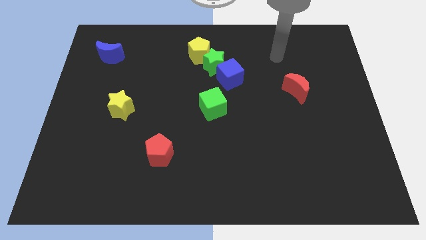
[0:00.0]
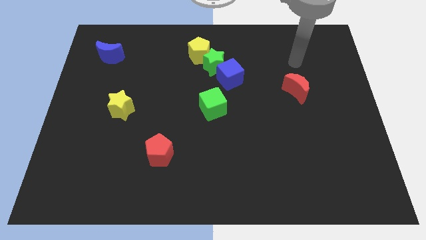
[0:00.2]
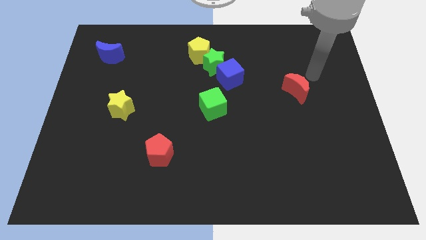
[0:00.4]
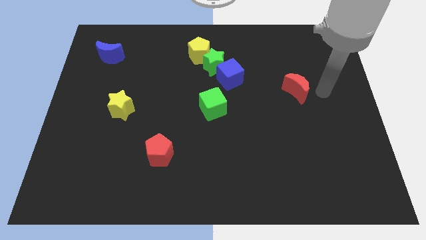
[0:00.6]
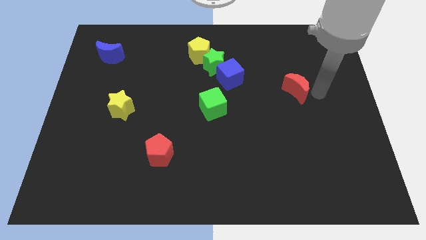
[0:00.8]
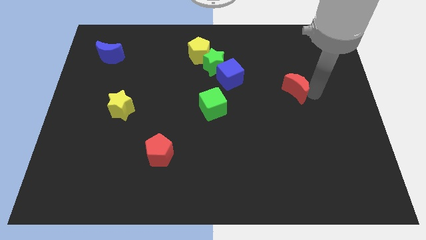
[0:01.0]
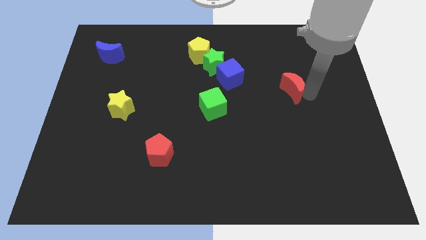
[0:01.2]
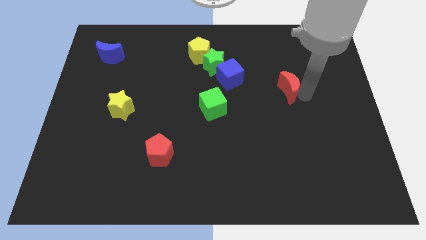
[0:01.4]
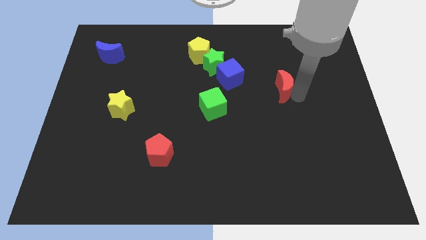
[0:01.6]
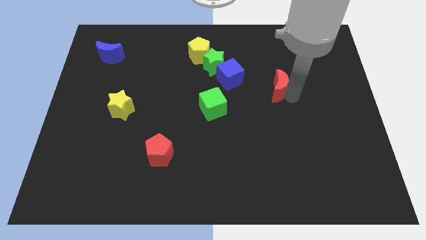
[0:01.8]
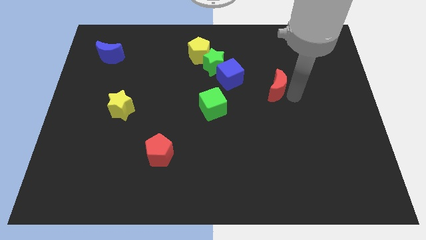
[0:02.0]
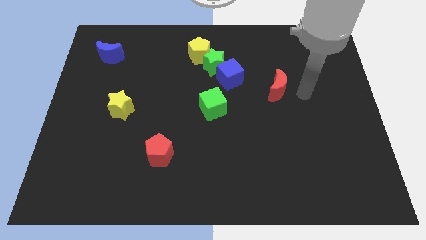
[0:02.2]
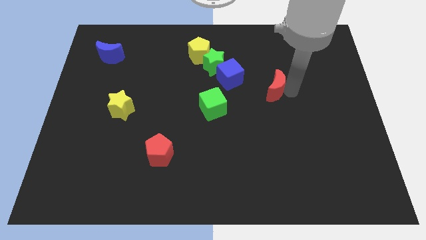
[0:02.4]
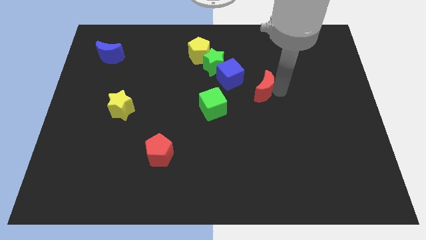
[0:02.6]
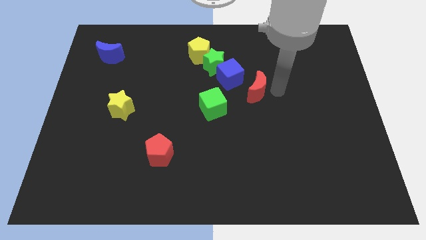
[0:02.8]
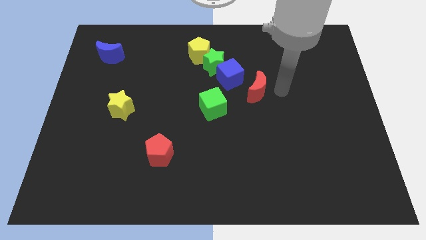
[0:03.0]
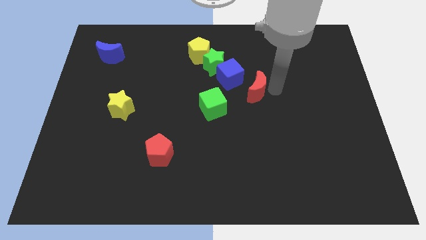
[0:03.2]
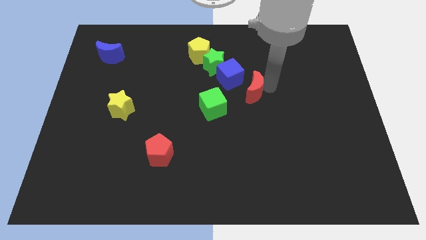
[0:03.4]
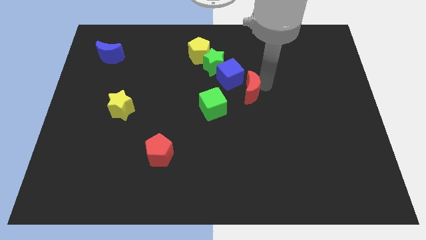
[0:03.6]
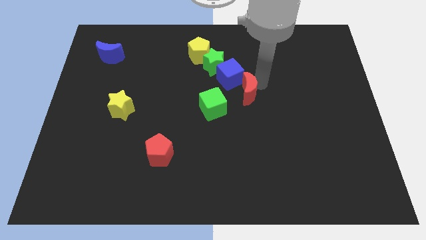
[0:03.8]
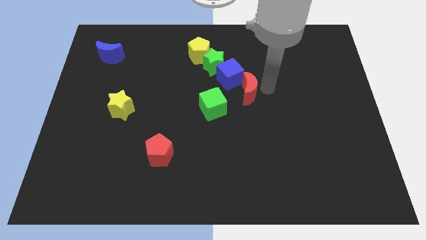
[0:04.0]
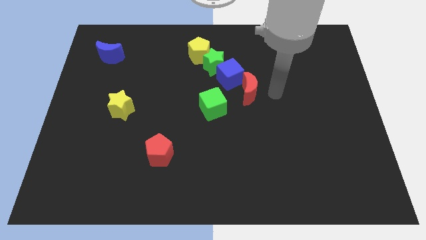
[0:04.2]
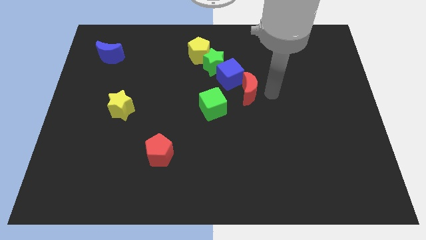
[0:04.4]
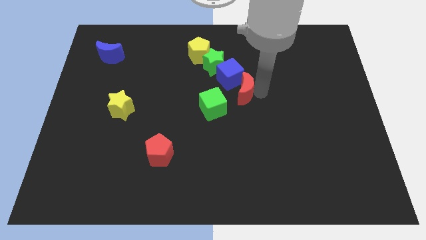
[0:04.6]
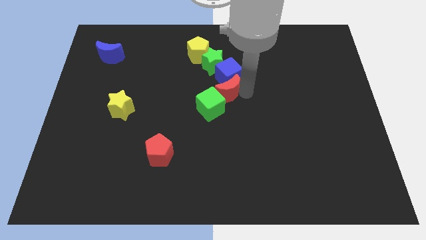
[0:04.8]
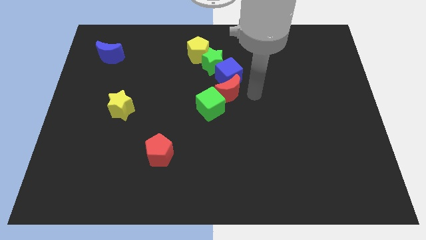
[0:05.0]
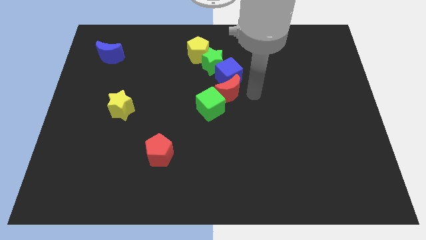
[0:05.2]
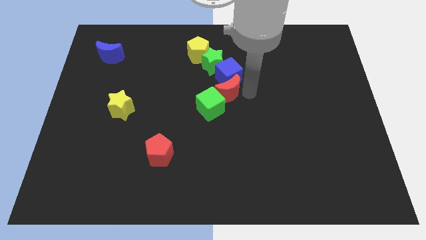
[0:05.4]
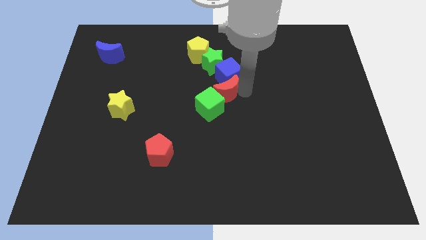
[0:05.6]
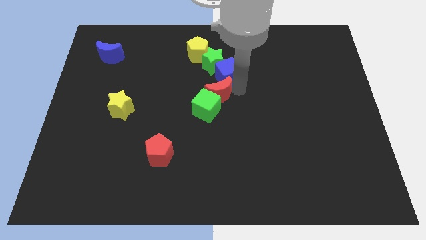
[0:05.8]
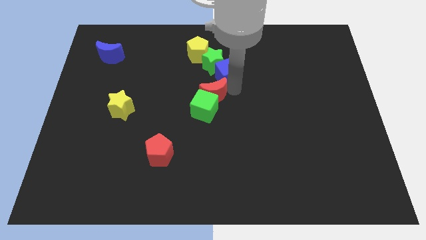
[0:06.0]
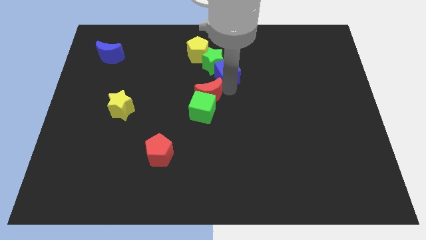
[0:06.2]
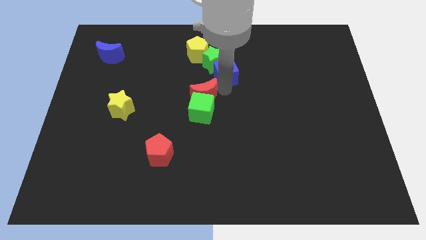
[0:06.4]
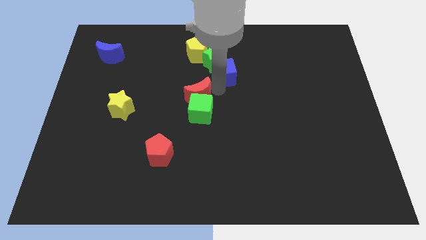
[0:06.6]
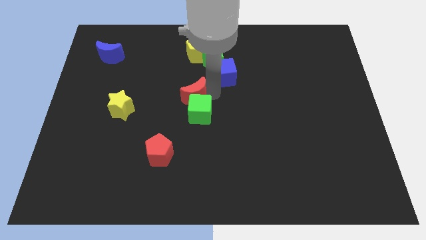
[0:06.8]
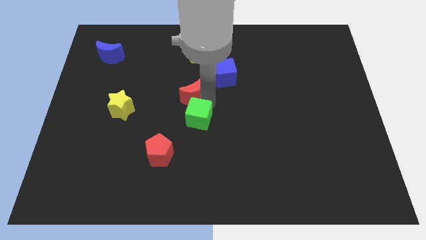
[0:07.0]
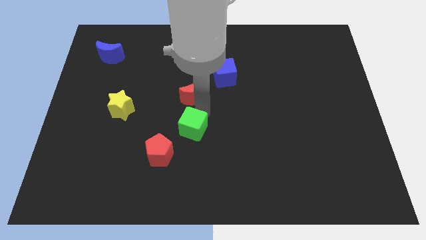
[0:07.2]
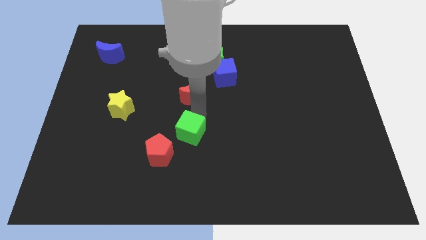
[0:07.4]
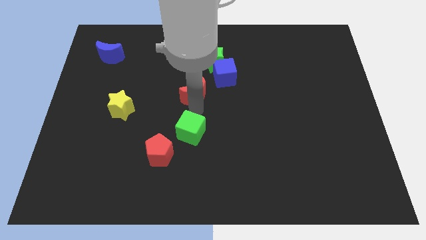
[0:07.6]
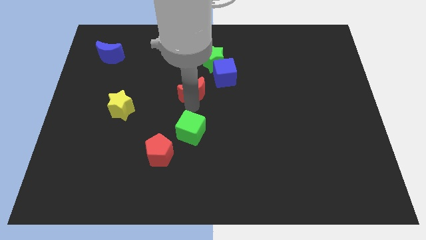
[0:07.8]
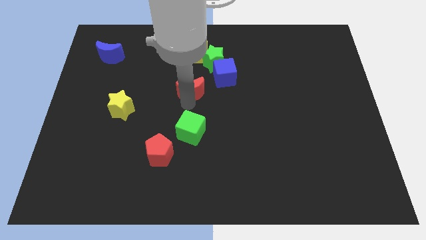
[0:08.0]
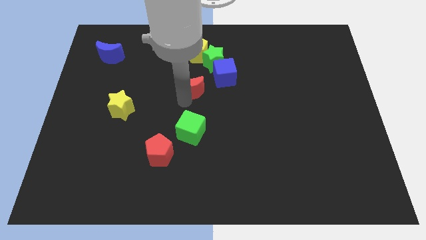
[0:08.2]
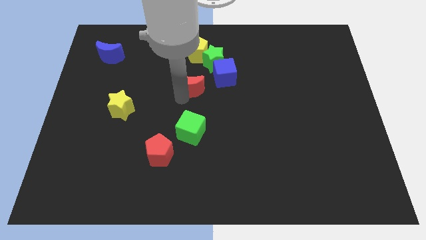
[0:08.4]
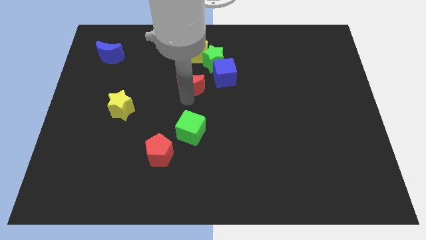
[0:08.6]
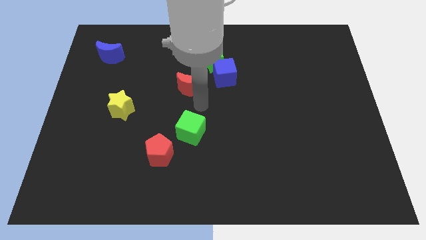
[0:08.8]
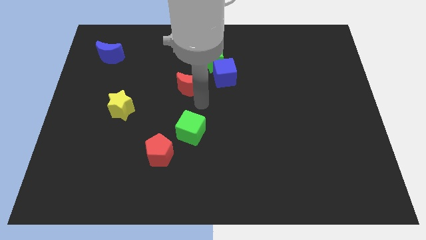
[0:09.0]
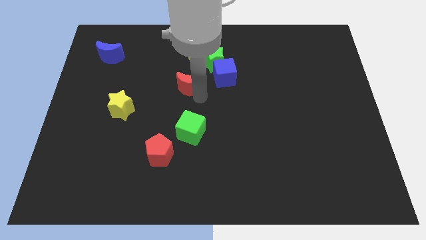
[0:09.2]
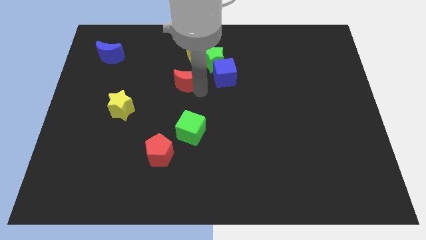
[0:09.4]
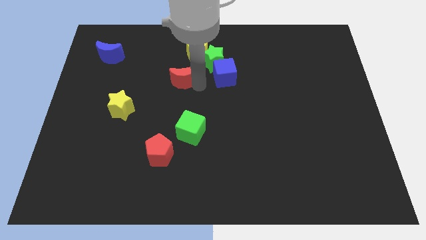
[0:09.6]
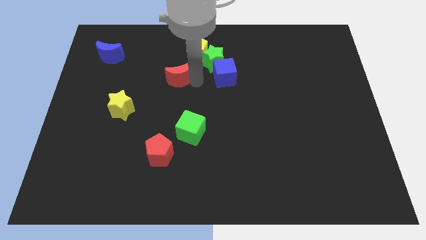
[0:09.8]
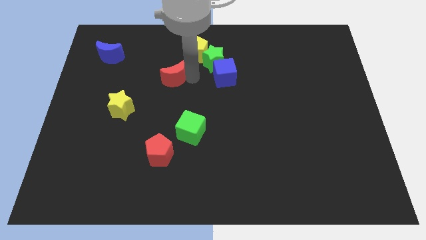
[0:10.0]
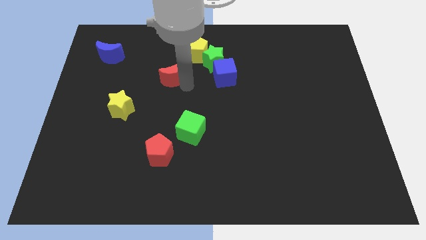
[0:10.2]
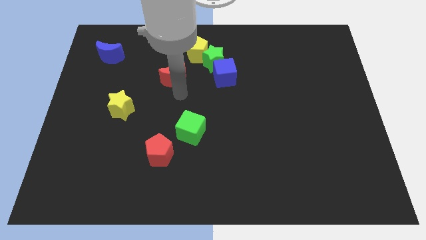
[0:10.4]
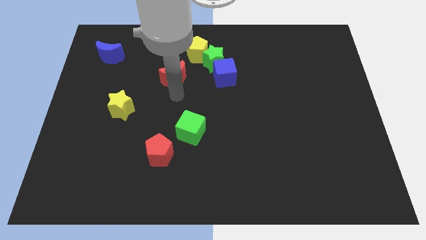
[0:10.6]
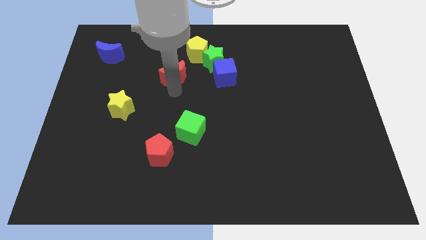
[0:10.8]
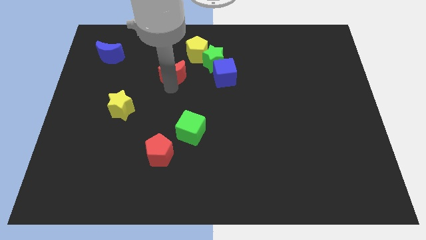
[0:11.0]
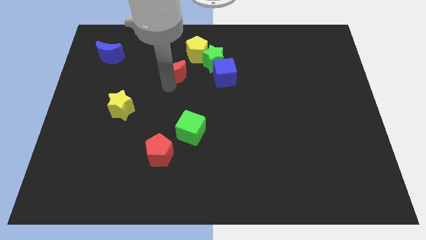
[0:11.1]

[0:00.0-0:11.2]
slide the red moon just left of the green star

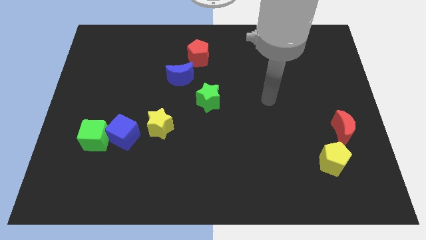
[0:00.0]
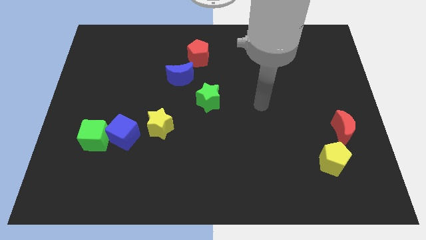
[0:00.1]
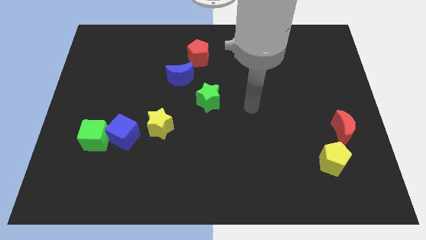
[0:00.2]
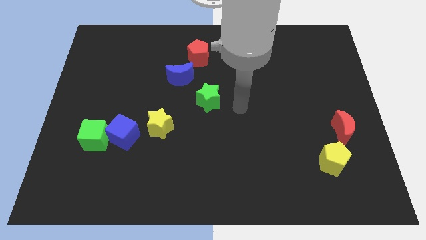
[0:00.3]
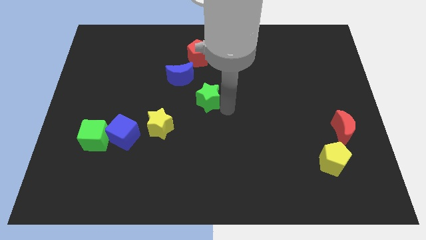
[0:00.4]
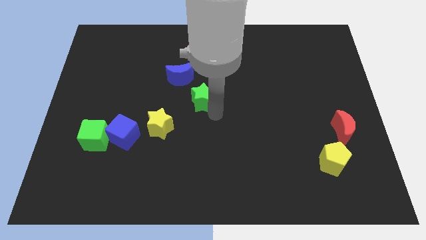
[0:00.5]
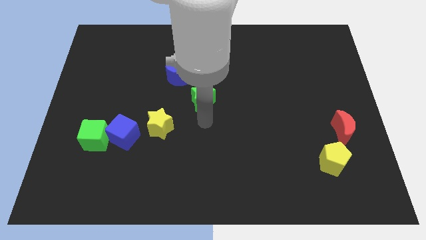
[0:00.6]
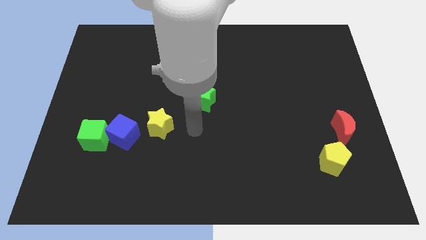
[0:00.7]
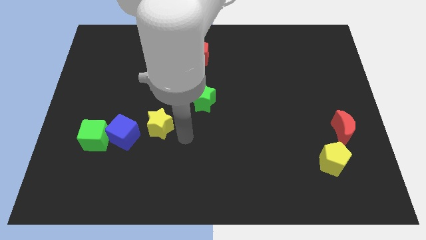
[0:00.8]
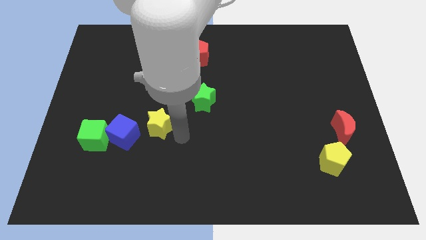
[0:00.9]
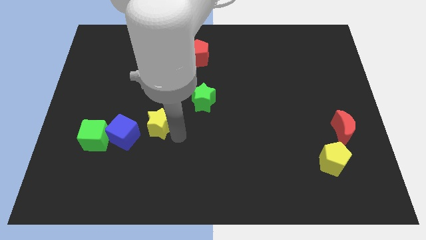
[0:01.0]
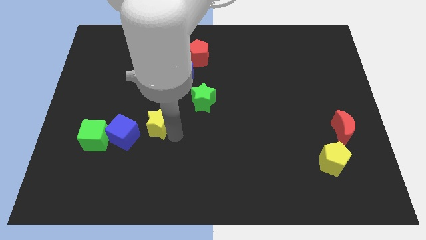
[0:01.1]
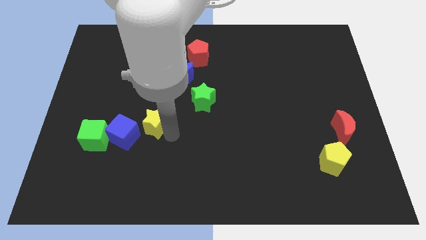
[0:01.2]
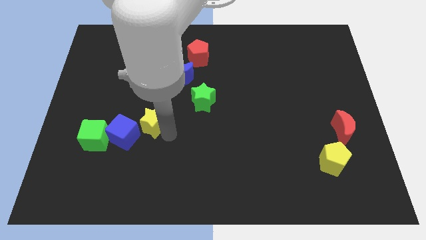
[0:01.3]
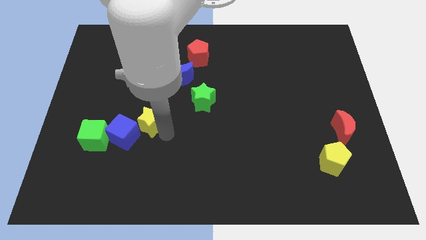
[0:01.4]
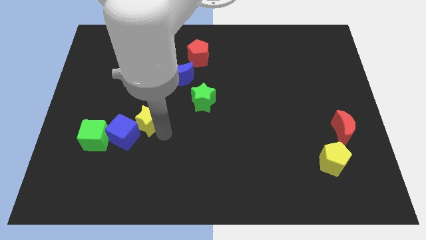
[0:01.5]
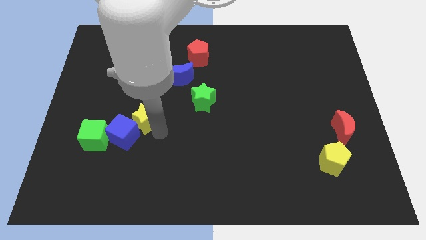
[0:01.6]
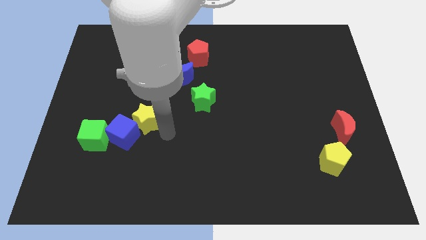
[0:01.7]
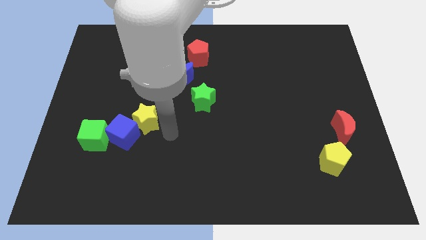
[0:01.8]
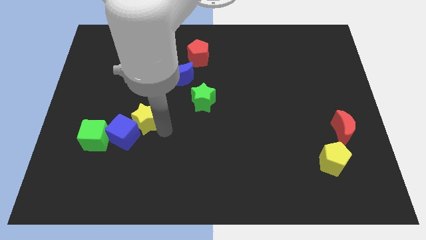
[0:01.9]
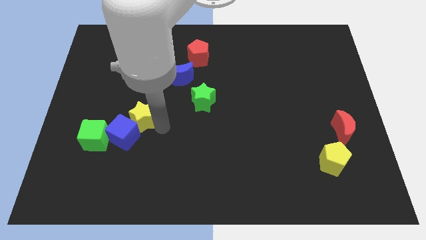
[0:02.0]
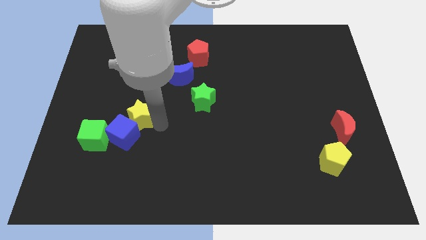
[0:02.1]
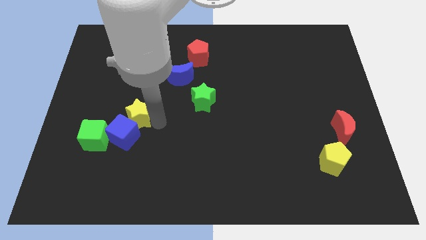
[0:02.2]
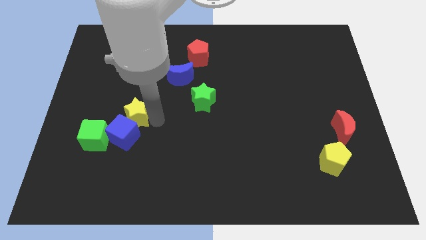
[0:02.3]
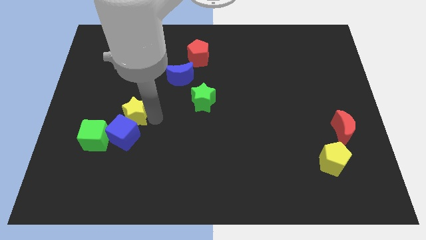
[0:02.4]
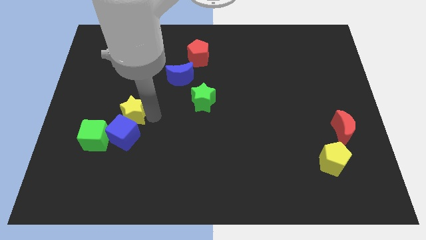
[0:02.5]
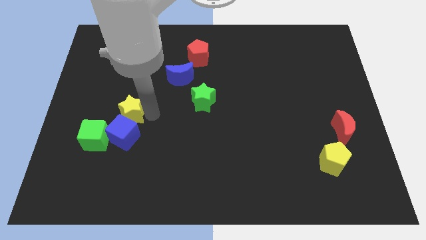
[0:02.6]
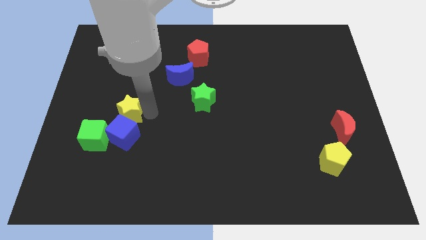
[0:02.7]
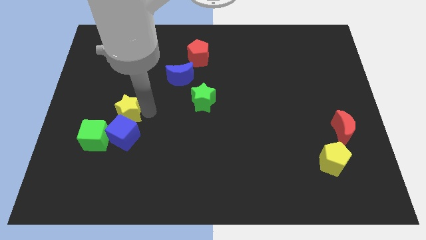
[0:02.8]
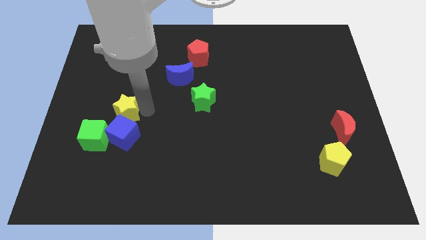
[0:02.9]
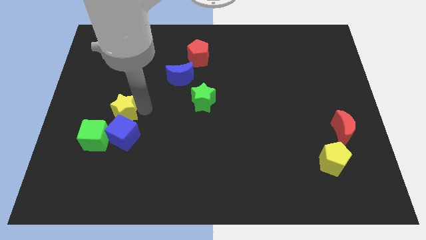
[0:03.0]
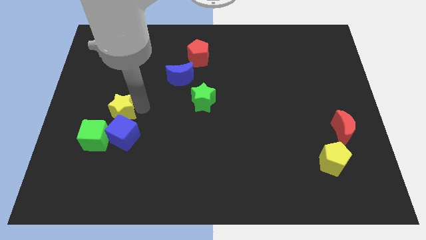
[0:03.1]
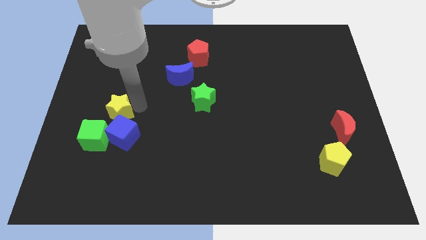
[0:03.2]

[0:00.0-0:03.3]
push the yellow star above the green cube
